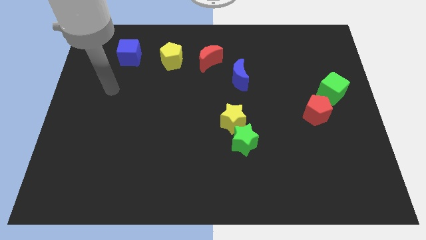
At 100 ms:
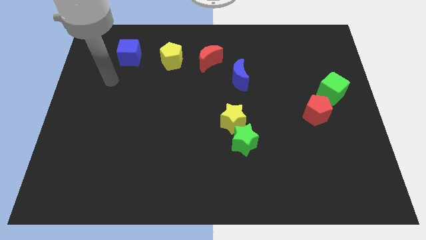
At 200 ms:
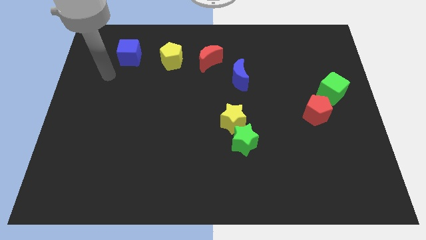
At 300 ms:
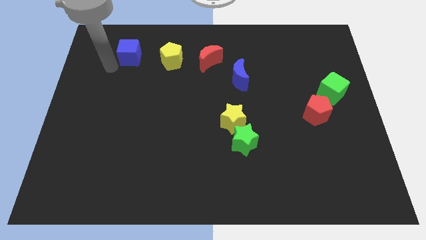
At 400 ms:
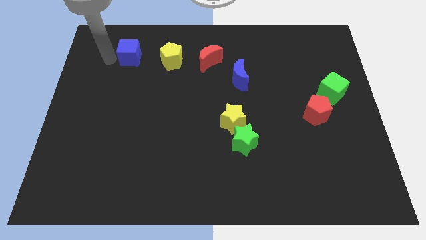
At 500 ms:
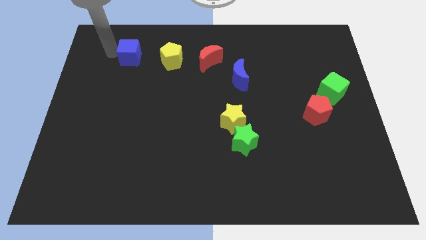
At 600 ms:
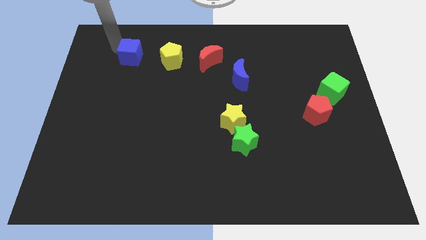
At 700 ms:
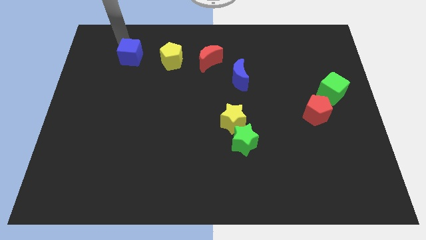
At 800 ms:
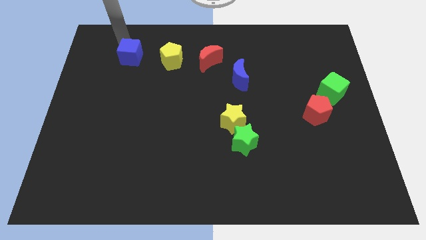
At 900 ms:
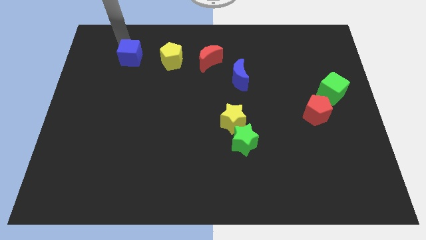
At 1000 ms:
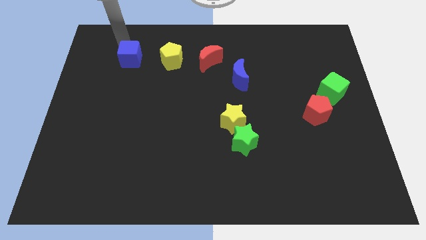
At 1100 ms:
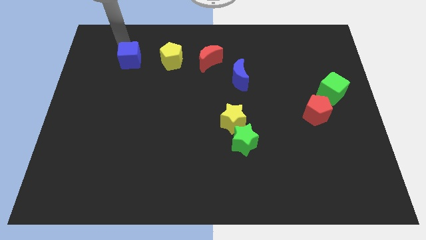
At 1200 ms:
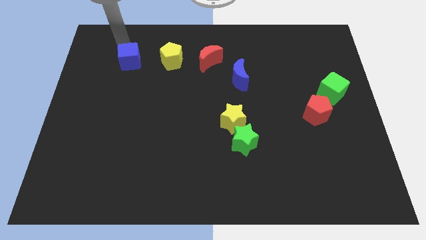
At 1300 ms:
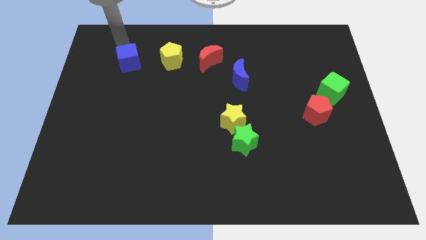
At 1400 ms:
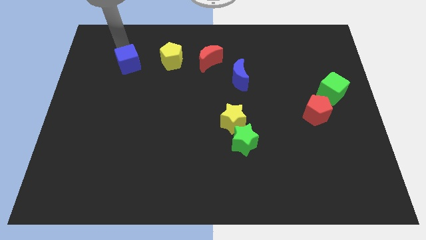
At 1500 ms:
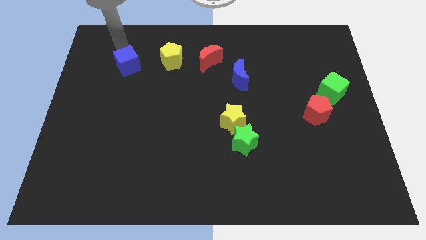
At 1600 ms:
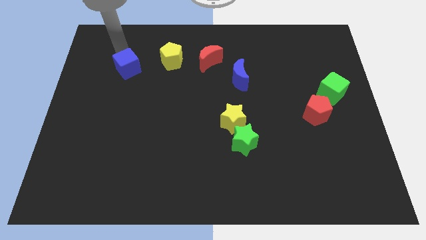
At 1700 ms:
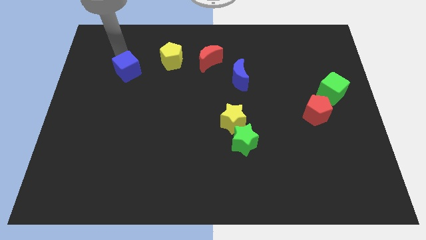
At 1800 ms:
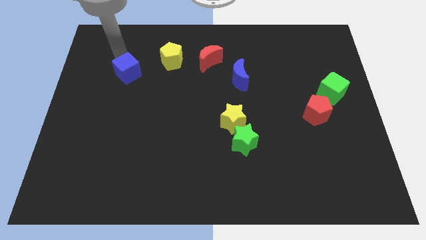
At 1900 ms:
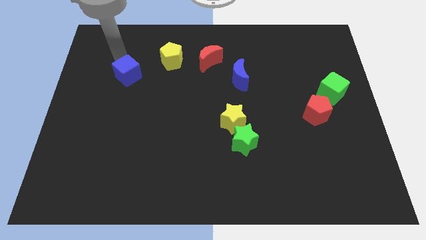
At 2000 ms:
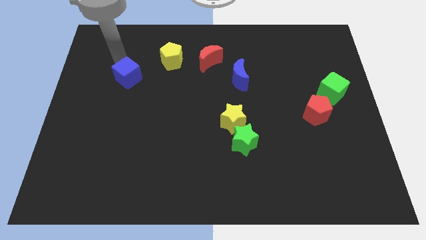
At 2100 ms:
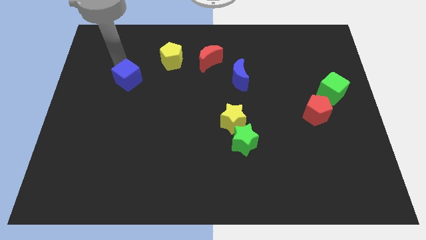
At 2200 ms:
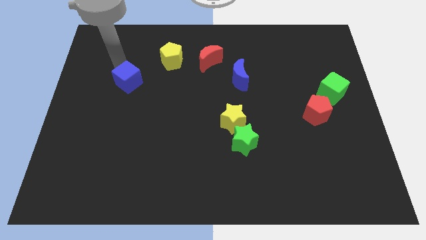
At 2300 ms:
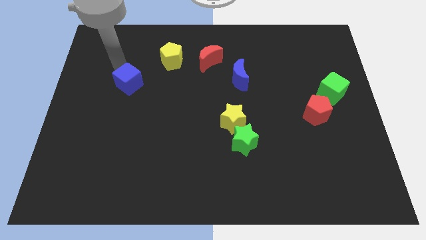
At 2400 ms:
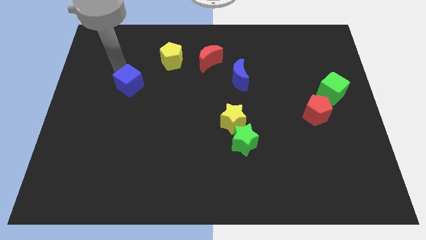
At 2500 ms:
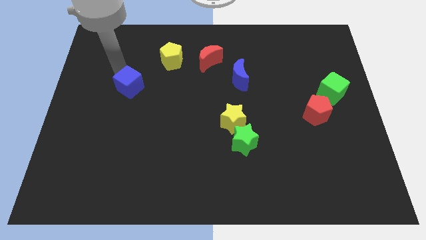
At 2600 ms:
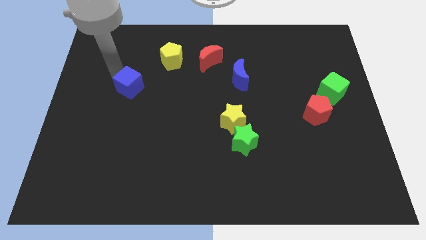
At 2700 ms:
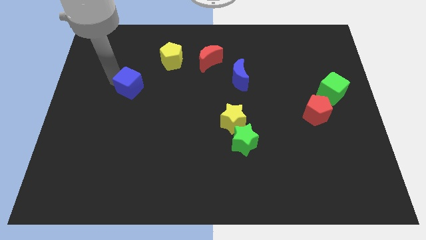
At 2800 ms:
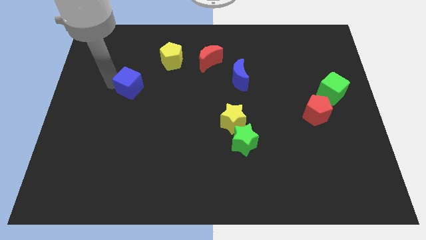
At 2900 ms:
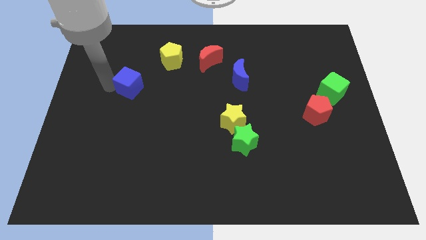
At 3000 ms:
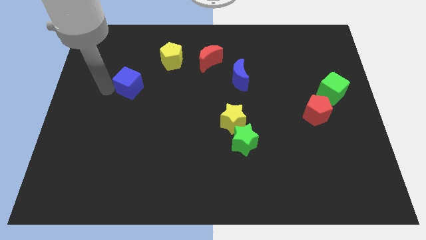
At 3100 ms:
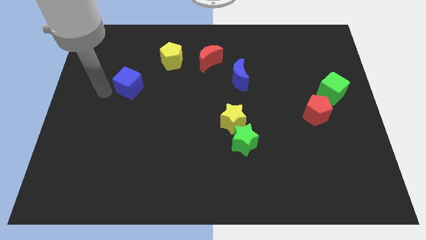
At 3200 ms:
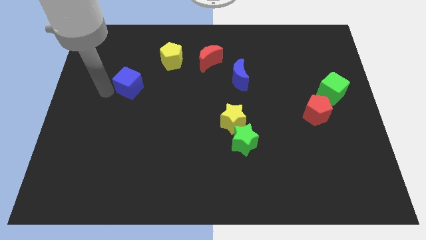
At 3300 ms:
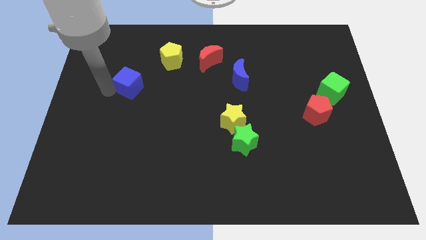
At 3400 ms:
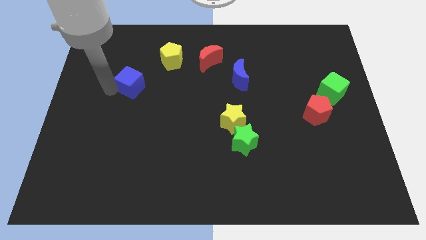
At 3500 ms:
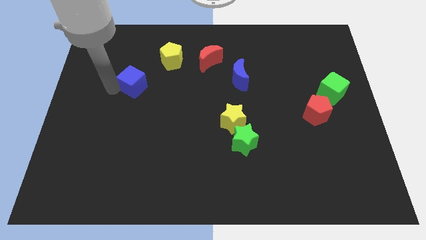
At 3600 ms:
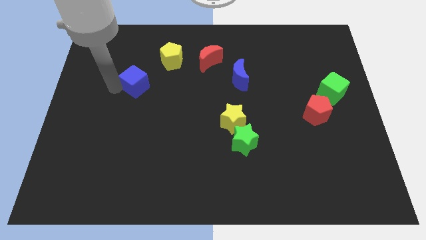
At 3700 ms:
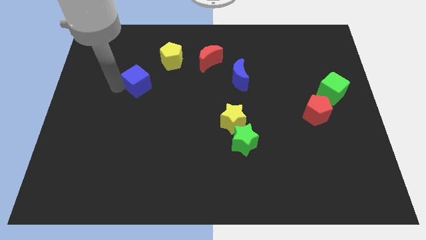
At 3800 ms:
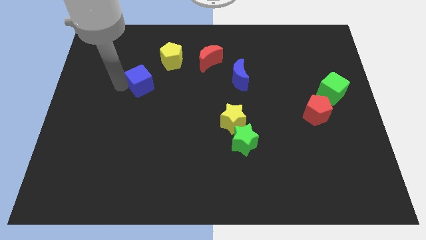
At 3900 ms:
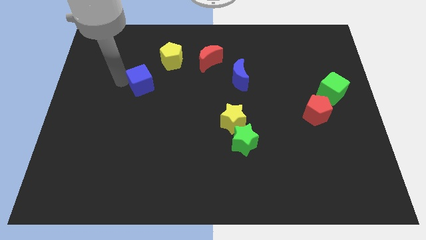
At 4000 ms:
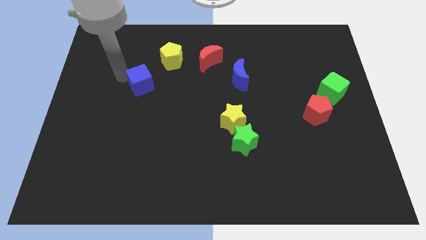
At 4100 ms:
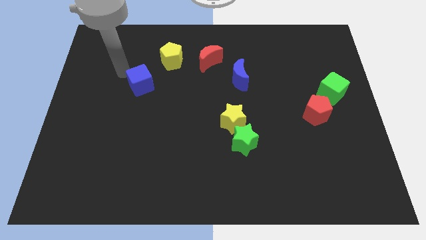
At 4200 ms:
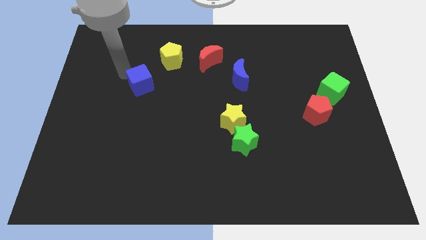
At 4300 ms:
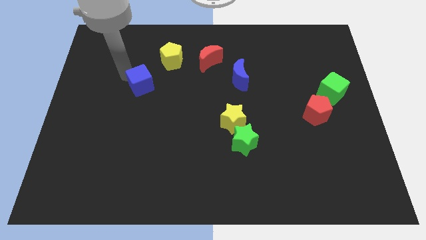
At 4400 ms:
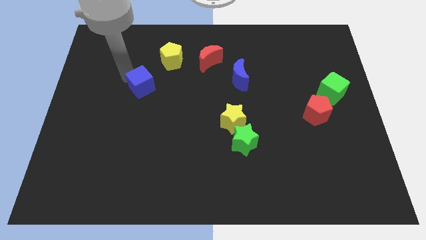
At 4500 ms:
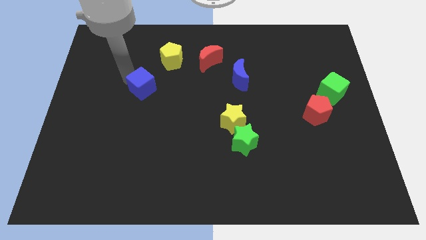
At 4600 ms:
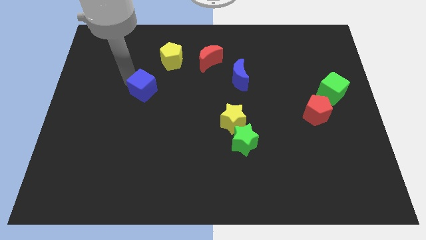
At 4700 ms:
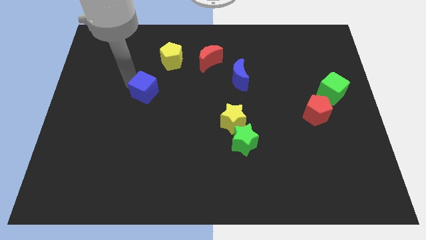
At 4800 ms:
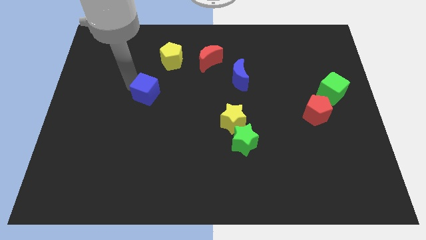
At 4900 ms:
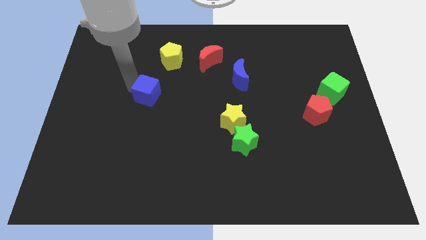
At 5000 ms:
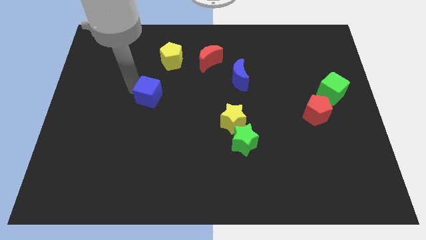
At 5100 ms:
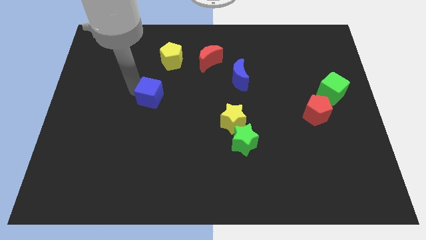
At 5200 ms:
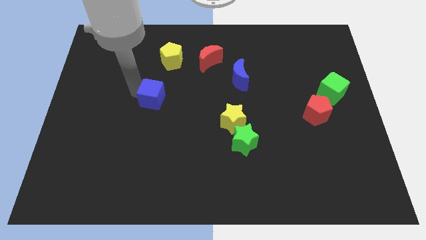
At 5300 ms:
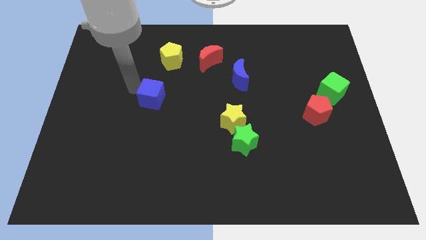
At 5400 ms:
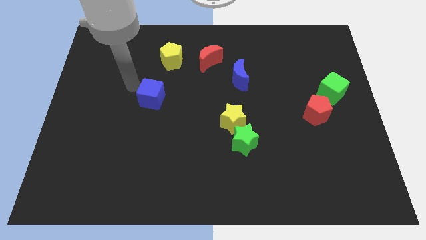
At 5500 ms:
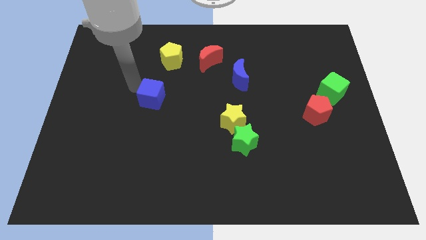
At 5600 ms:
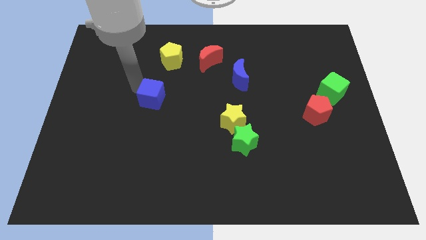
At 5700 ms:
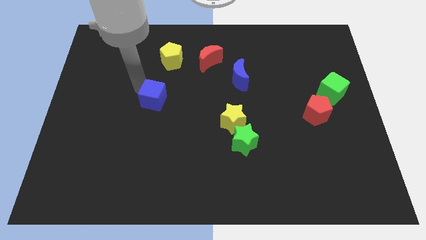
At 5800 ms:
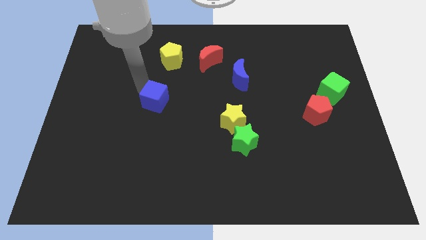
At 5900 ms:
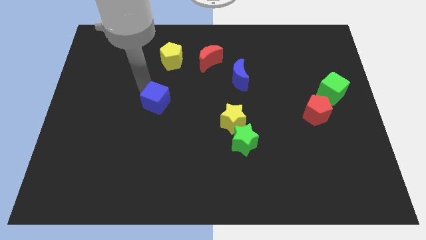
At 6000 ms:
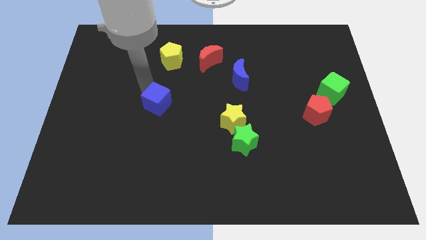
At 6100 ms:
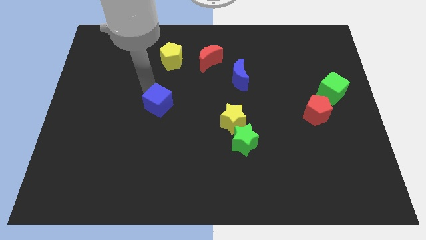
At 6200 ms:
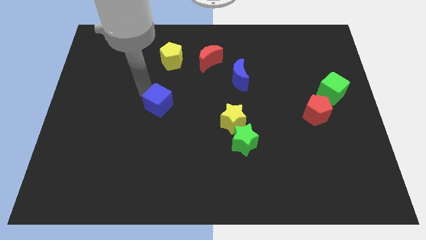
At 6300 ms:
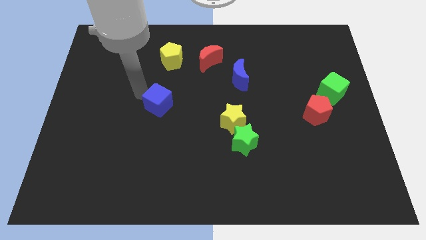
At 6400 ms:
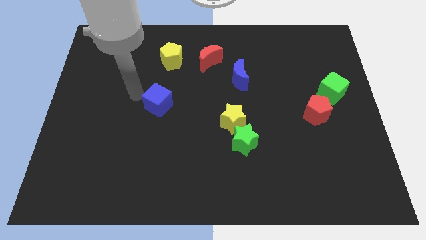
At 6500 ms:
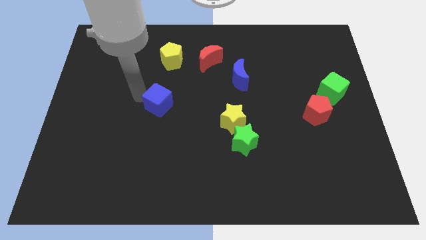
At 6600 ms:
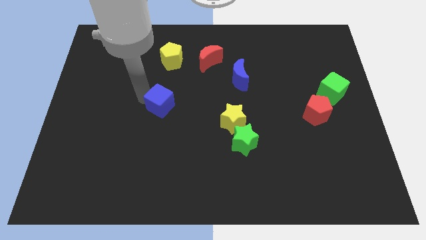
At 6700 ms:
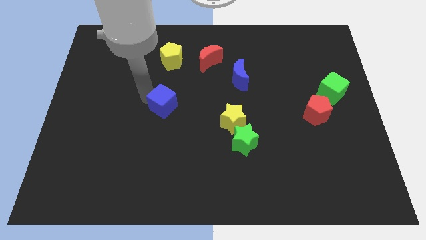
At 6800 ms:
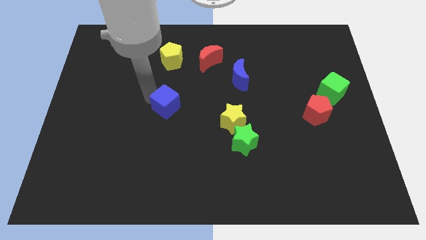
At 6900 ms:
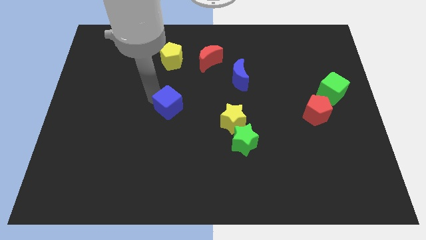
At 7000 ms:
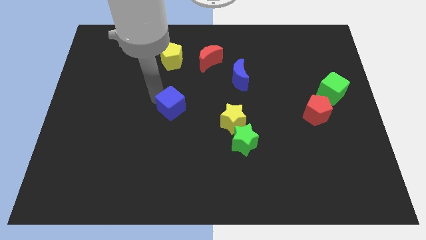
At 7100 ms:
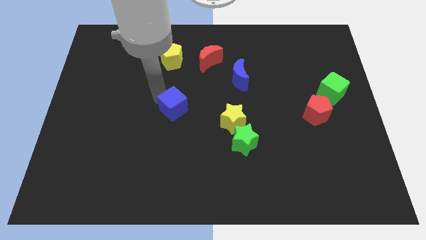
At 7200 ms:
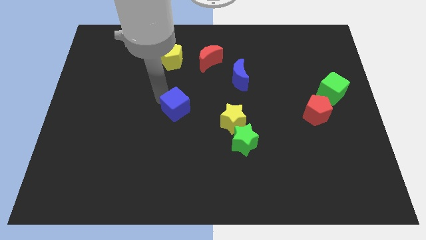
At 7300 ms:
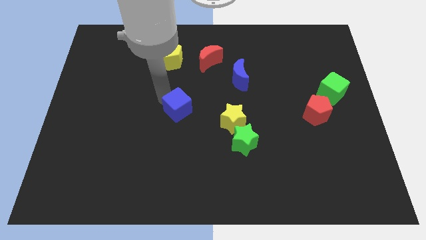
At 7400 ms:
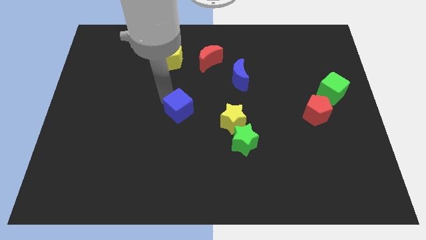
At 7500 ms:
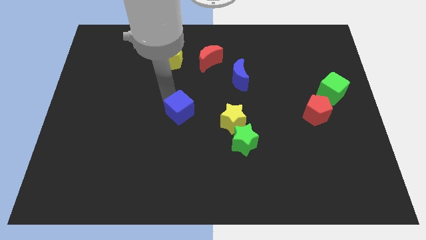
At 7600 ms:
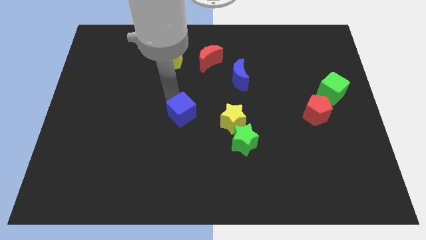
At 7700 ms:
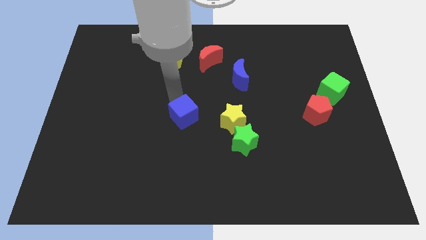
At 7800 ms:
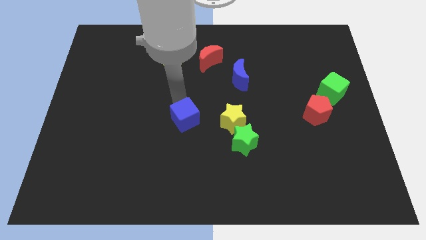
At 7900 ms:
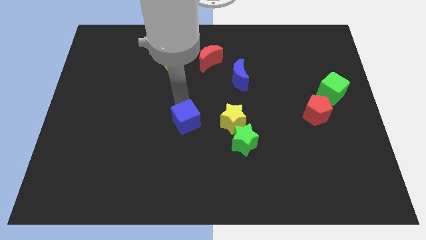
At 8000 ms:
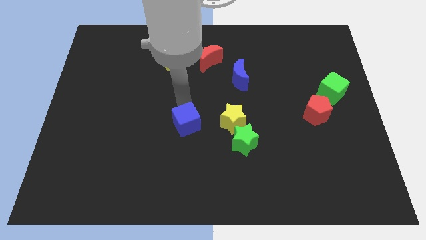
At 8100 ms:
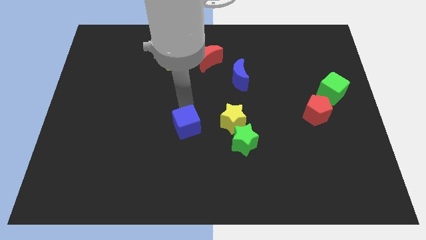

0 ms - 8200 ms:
put the blue cube just left of the green star

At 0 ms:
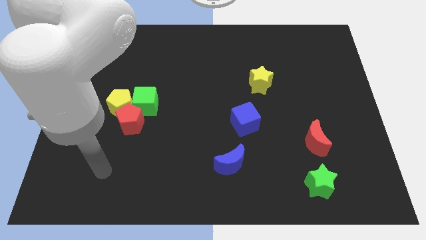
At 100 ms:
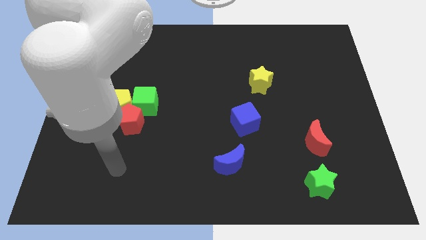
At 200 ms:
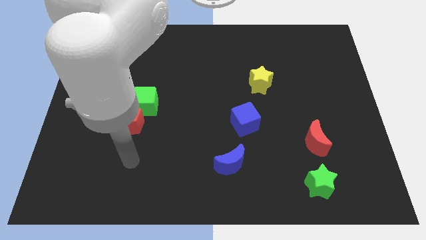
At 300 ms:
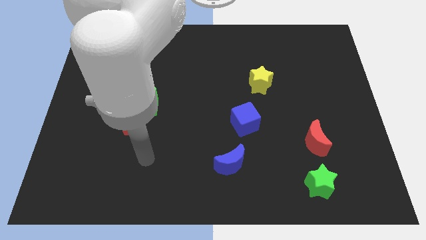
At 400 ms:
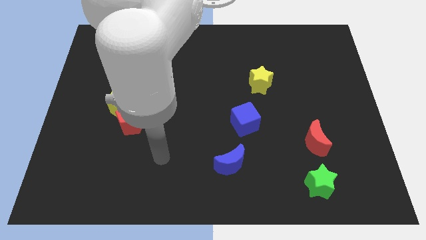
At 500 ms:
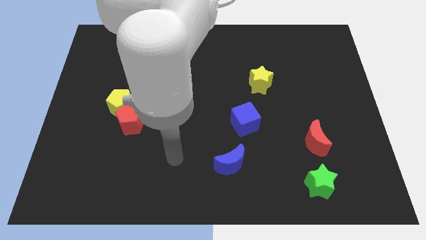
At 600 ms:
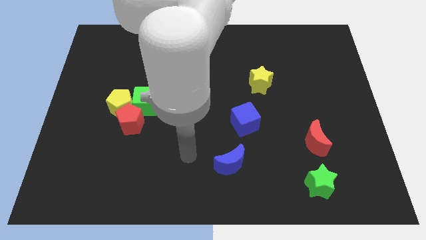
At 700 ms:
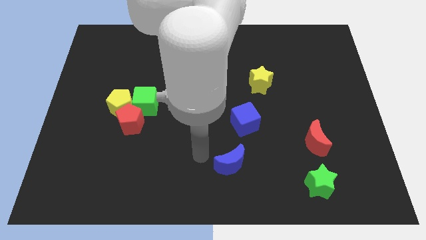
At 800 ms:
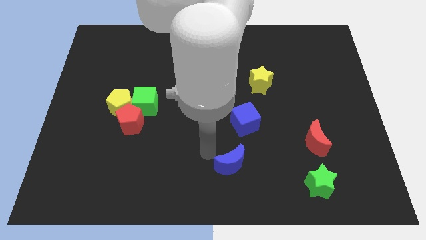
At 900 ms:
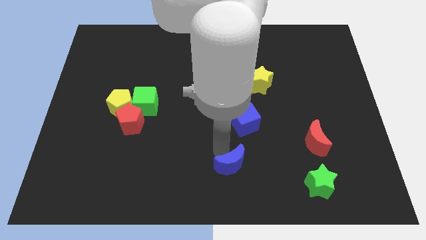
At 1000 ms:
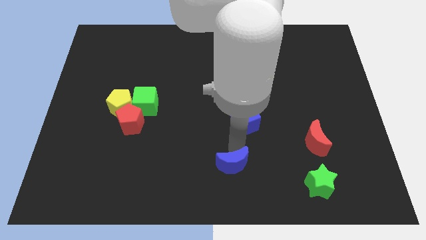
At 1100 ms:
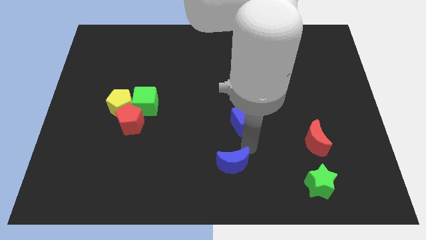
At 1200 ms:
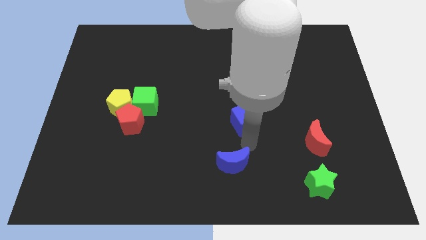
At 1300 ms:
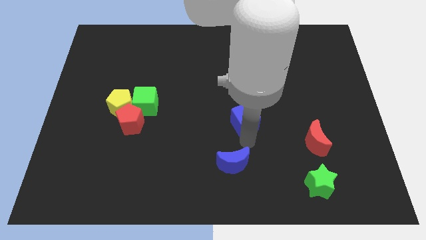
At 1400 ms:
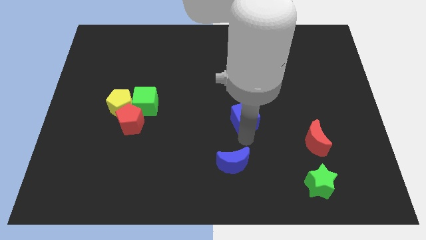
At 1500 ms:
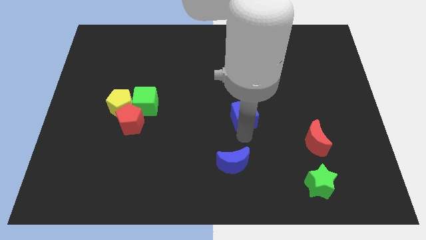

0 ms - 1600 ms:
slide the blue cube to the bottom left side of the yellow star
